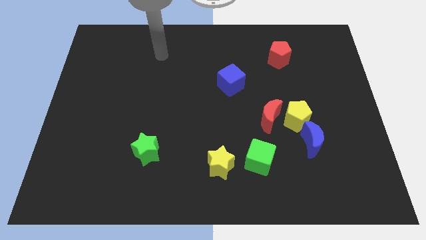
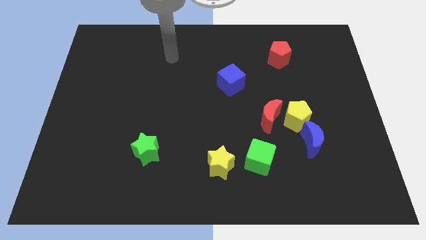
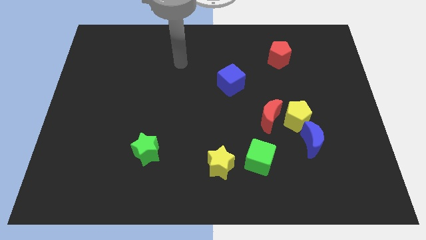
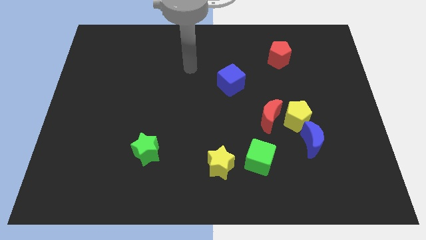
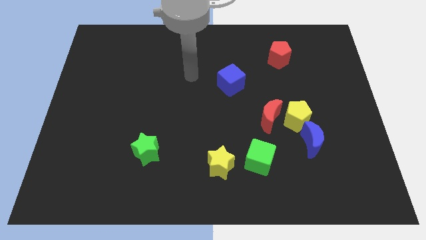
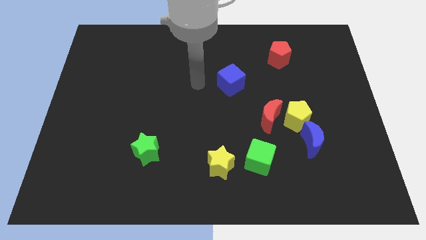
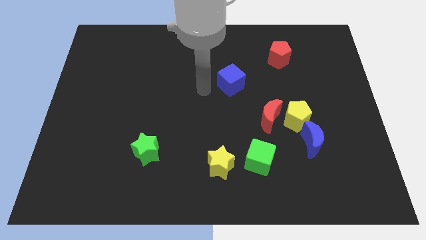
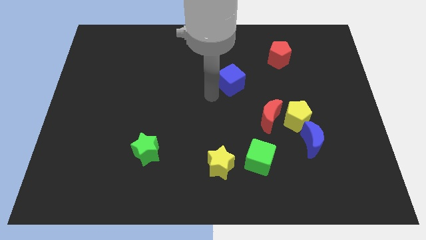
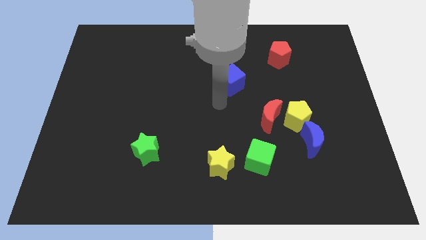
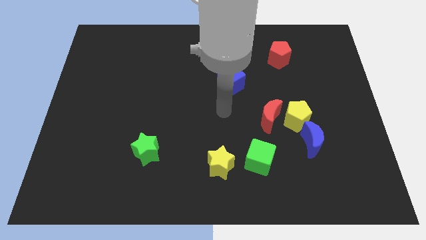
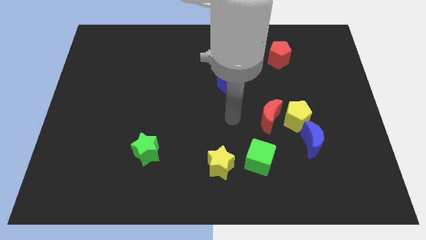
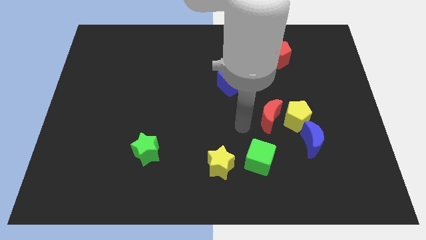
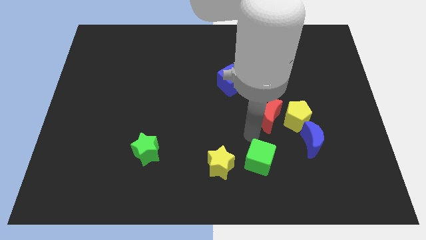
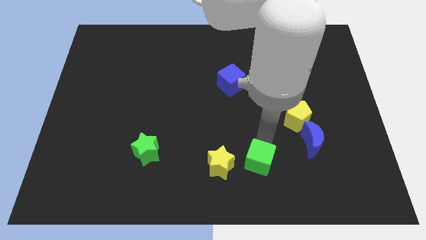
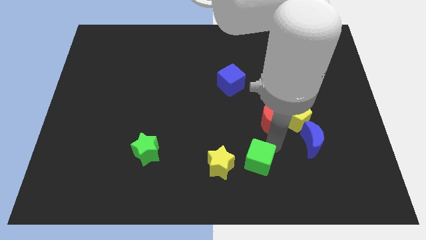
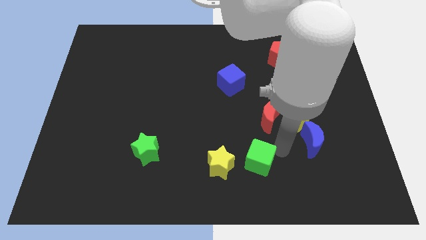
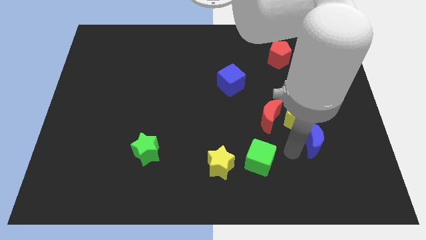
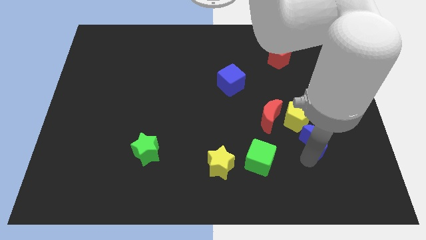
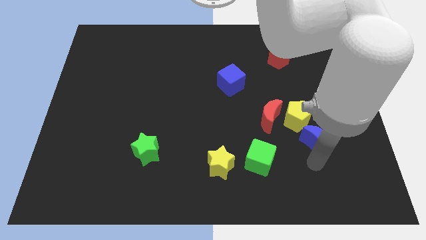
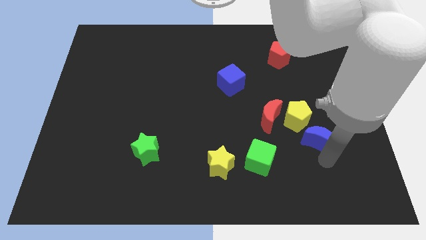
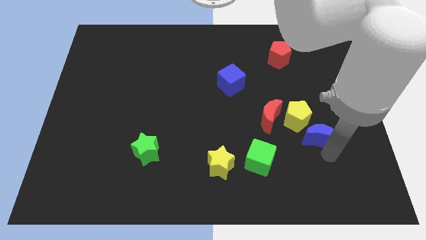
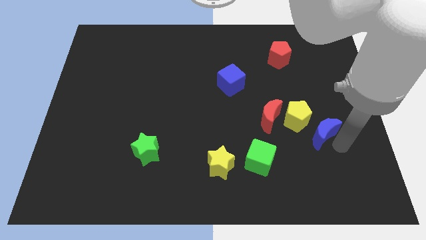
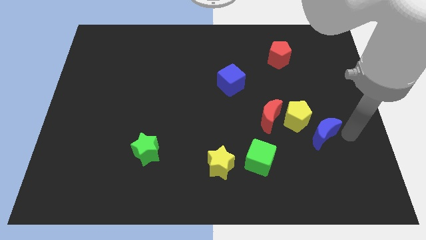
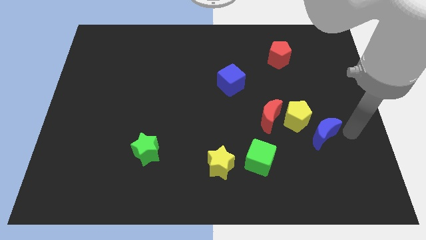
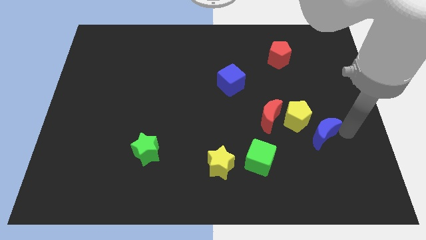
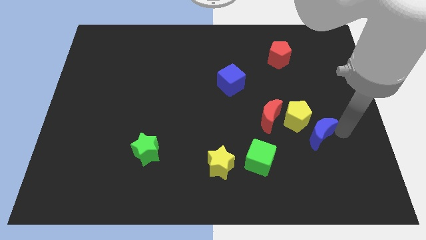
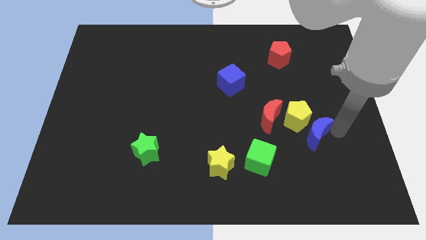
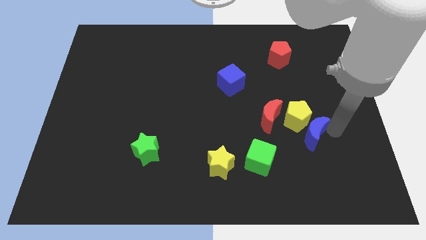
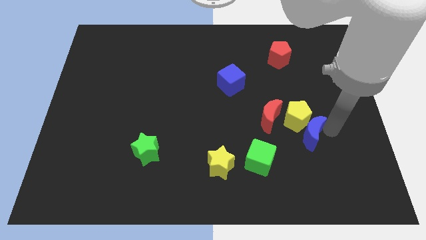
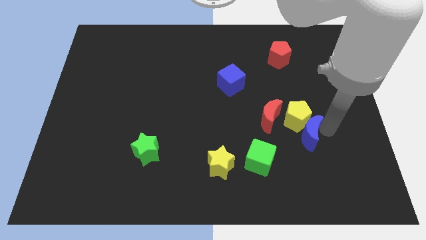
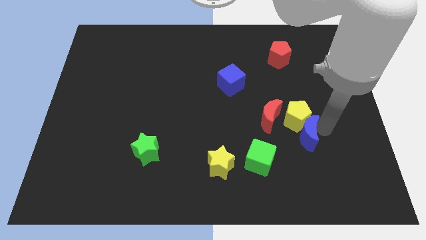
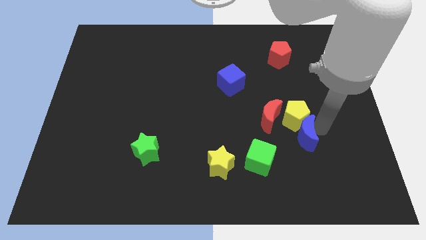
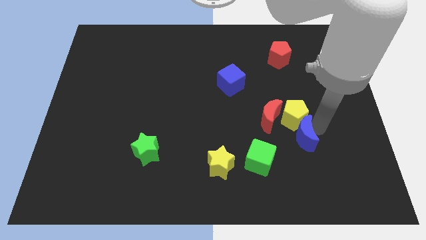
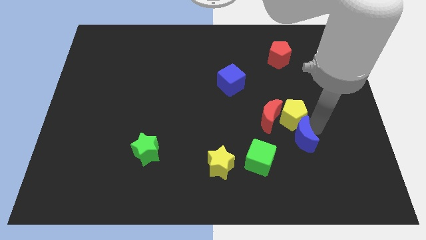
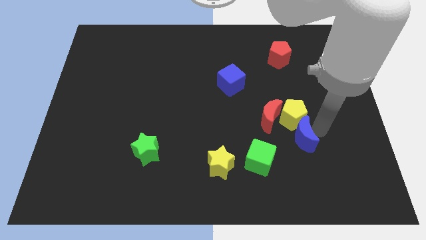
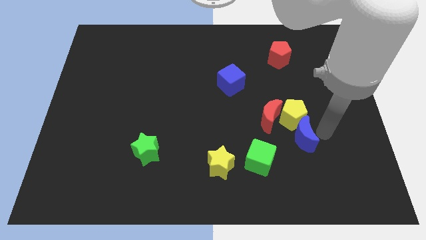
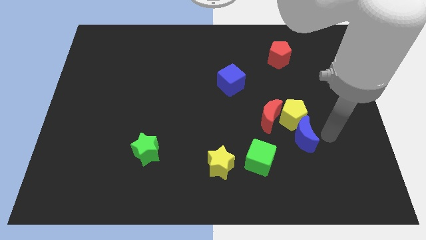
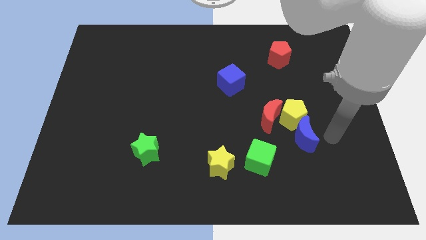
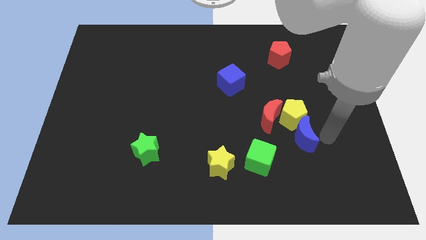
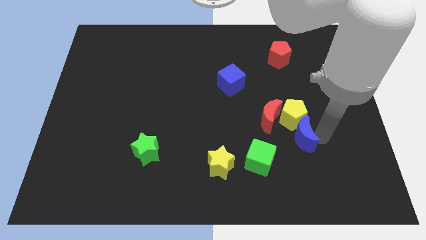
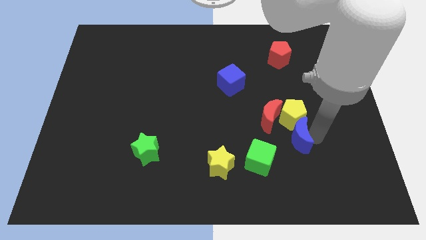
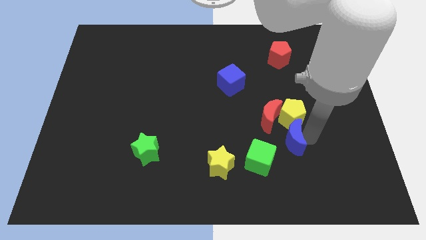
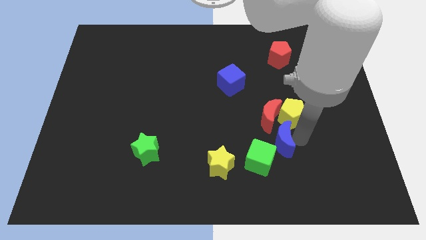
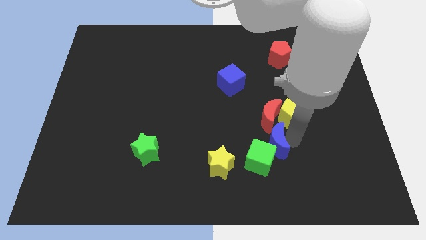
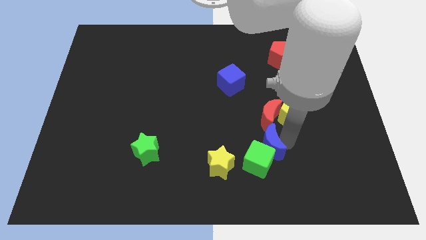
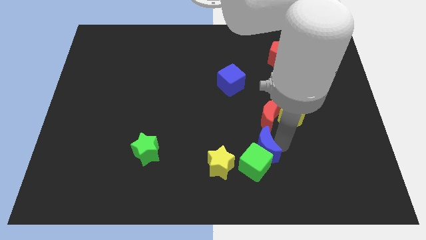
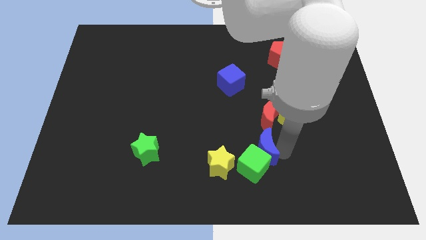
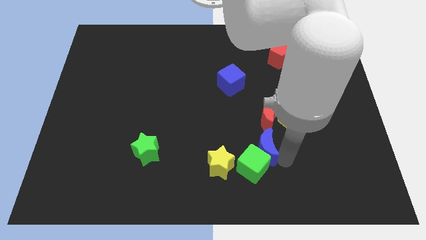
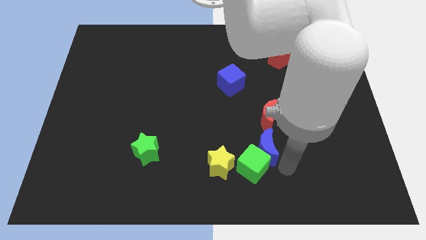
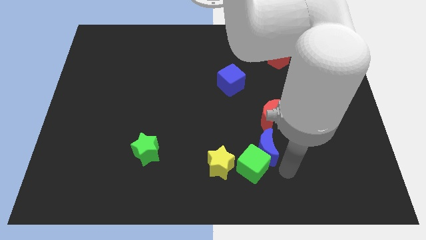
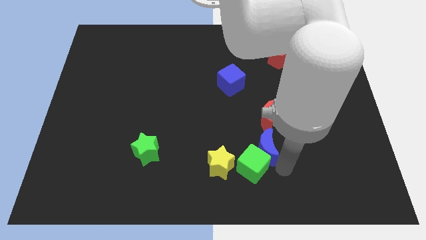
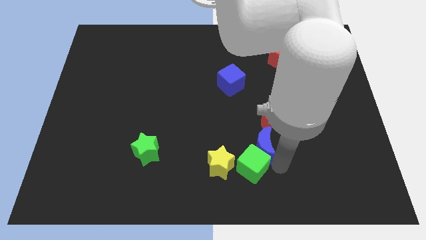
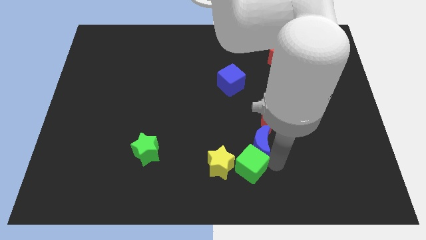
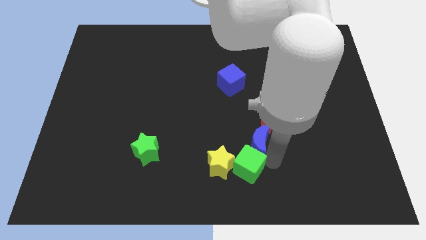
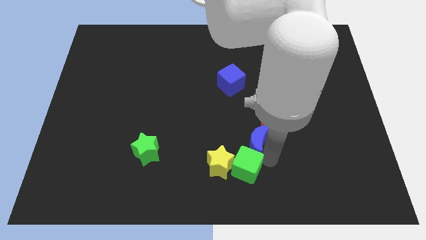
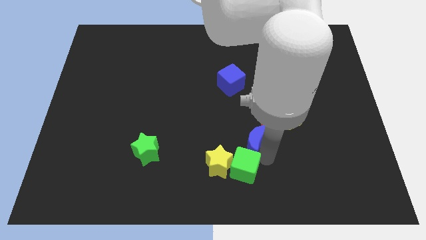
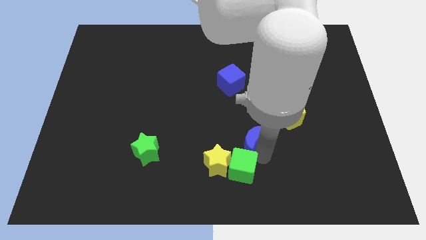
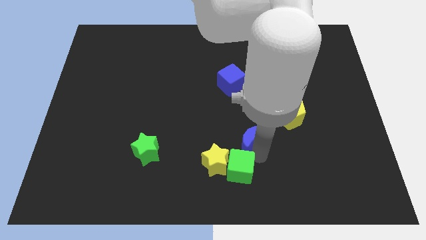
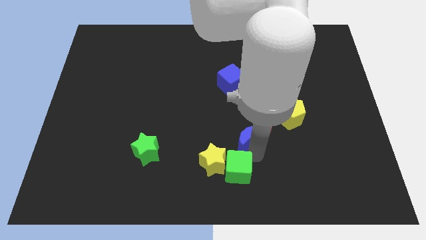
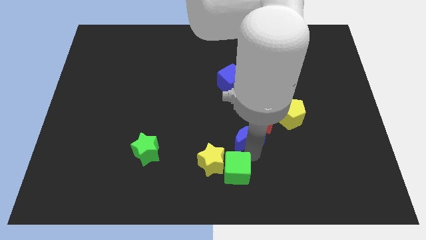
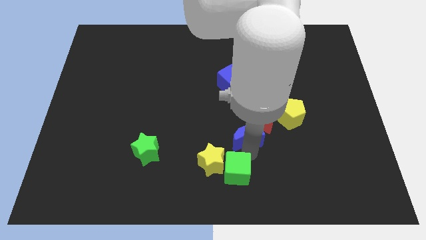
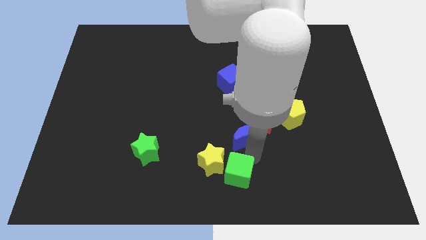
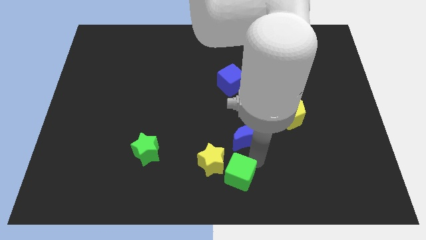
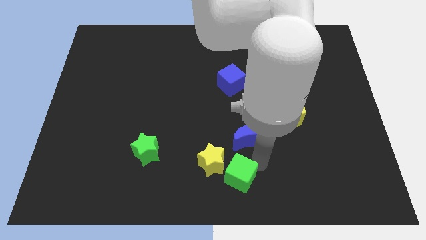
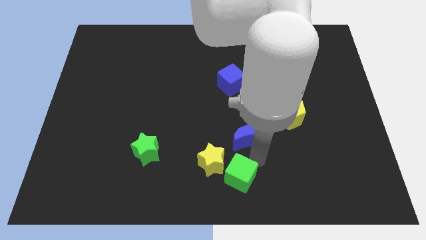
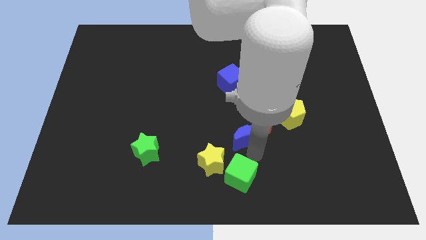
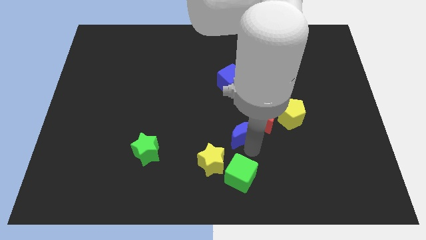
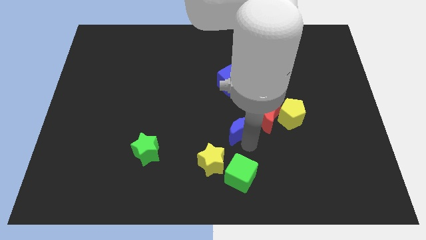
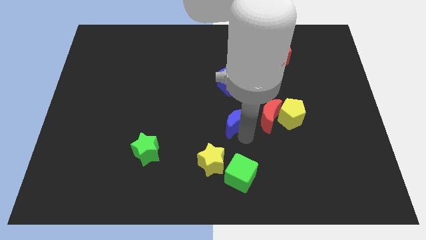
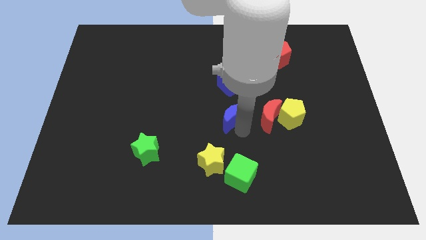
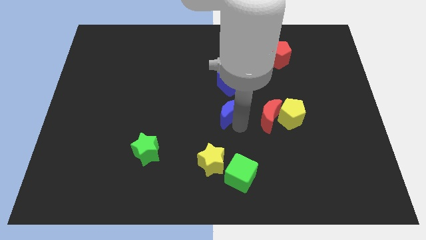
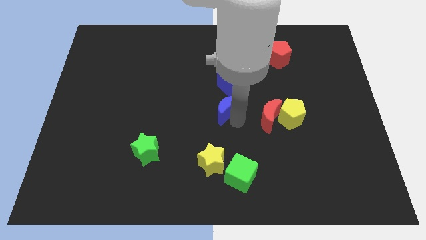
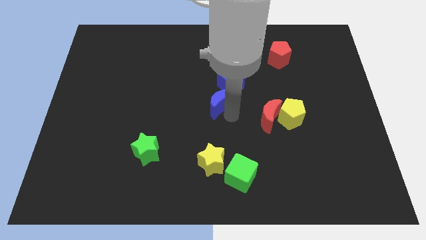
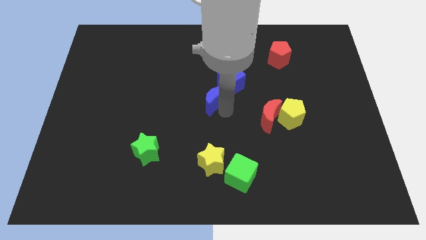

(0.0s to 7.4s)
slide the blue moon up and left diagonally

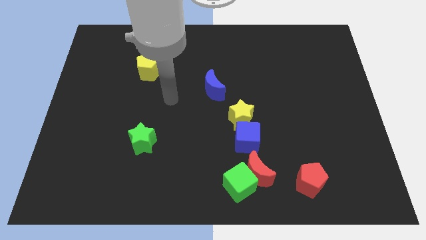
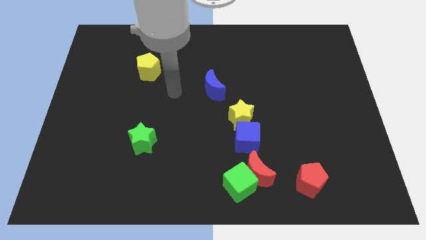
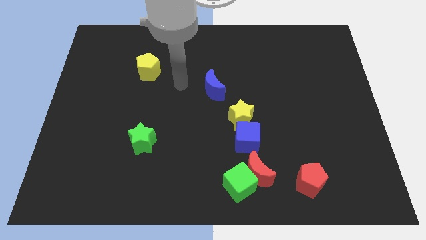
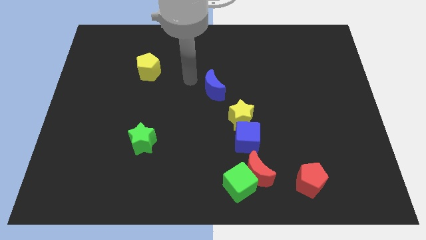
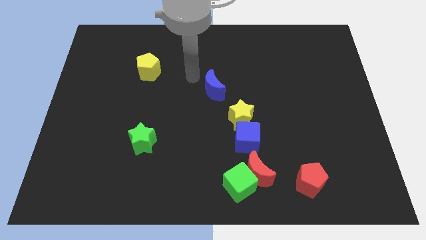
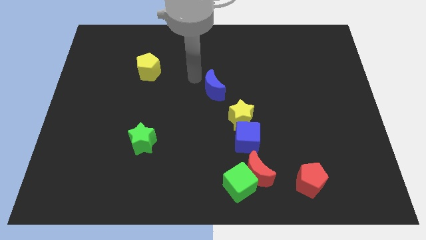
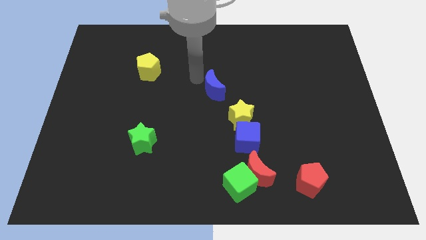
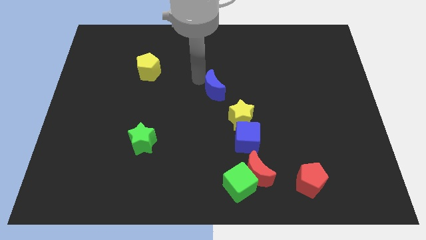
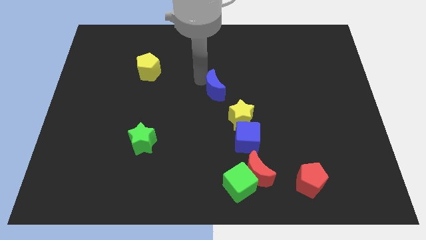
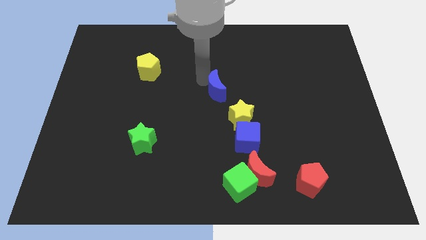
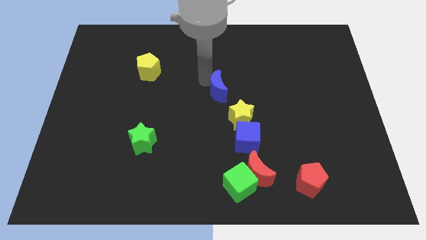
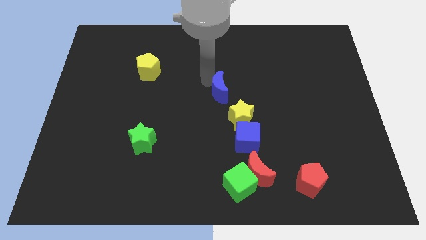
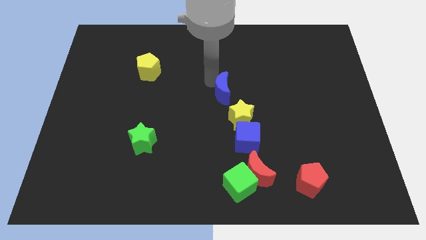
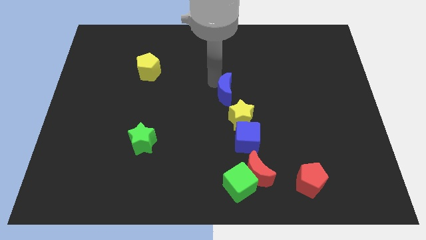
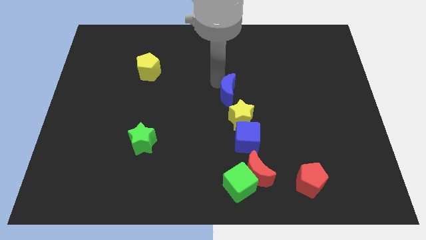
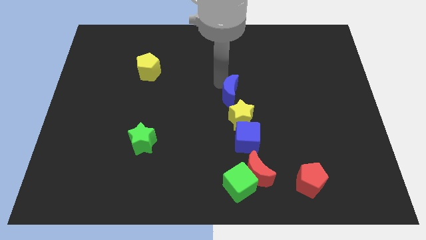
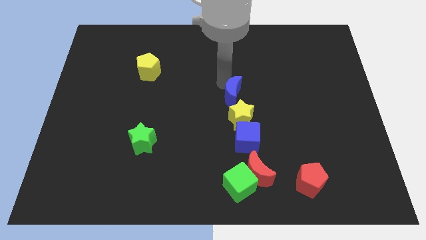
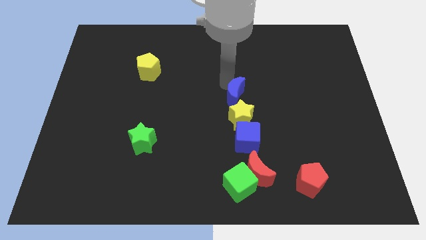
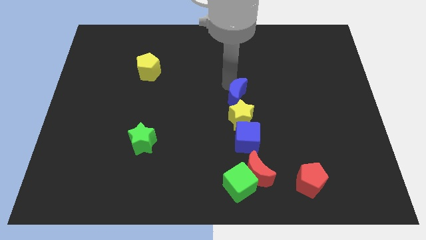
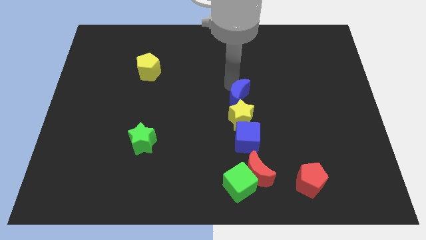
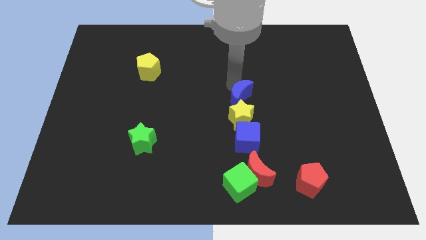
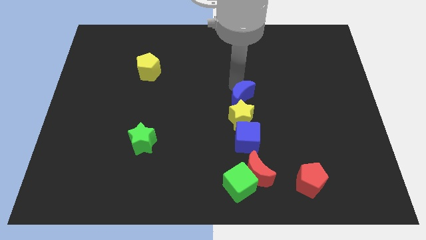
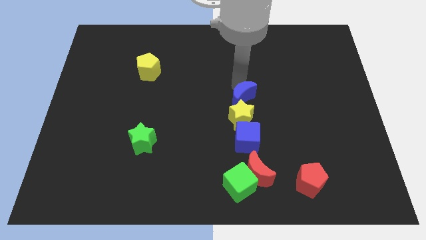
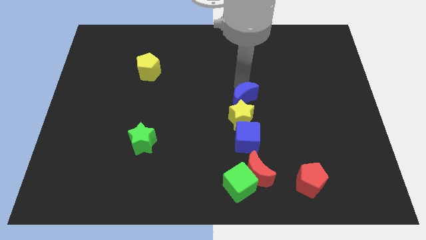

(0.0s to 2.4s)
slightly slide the blue moon diagonally down and right
